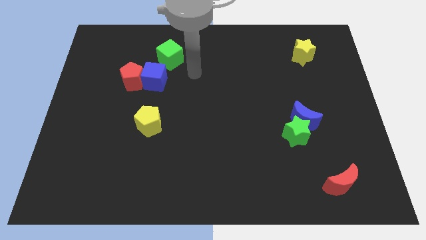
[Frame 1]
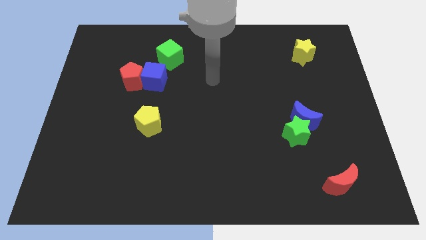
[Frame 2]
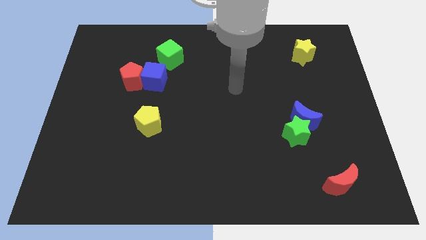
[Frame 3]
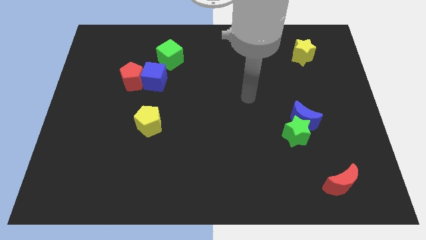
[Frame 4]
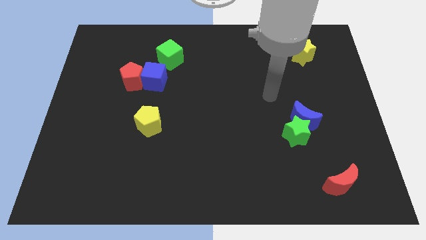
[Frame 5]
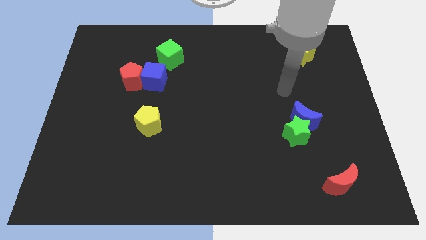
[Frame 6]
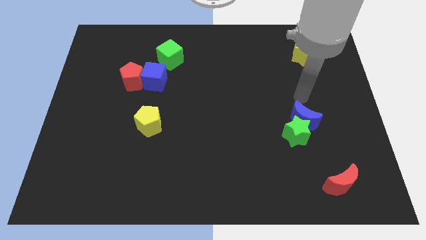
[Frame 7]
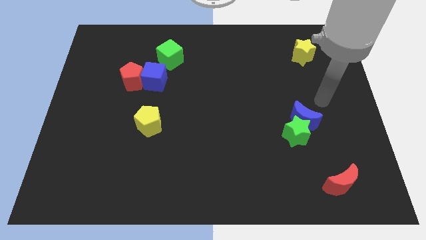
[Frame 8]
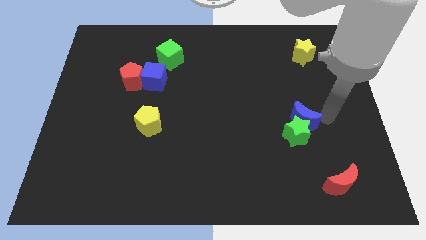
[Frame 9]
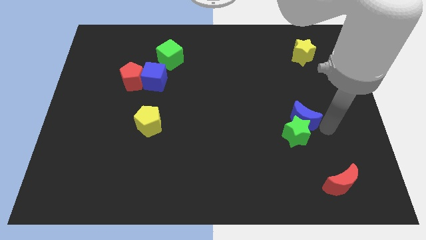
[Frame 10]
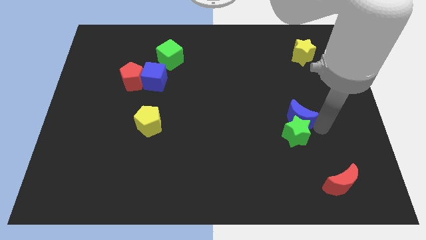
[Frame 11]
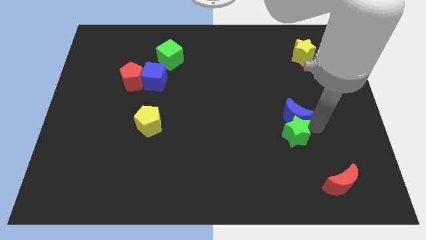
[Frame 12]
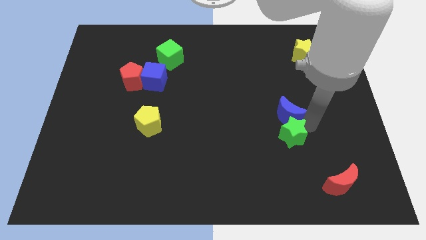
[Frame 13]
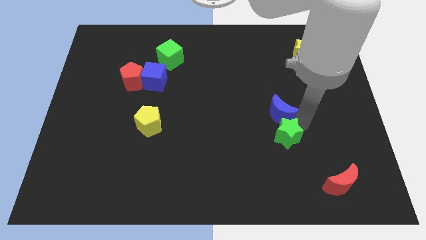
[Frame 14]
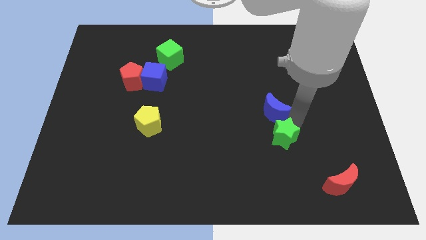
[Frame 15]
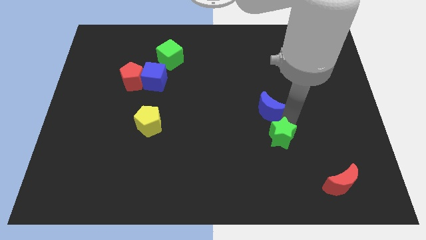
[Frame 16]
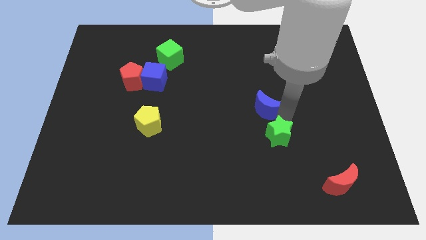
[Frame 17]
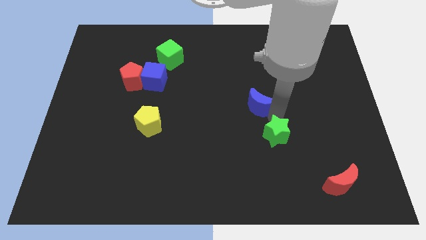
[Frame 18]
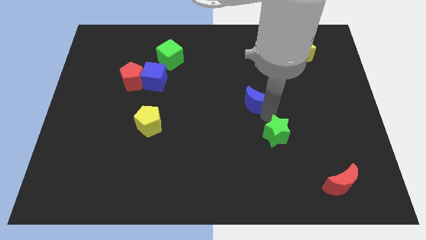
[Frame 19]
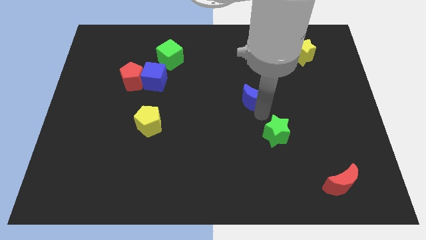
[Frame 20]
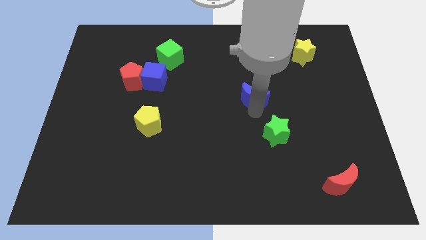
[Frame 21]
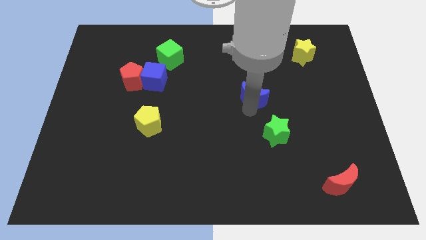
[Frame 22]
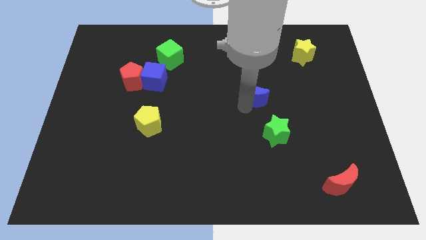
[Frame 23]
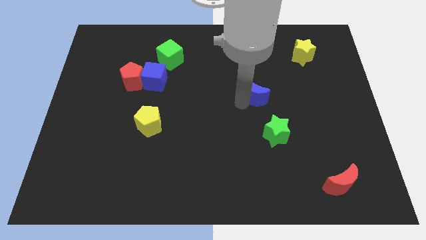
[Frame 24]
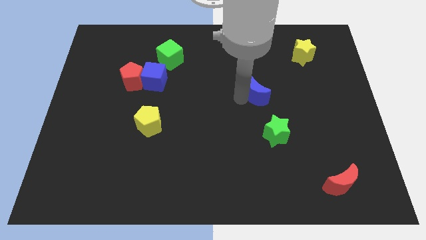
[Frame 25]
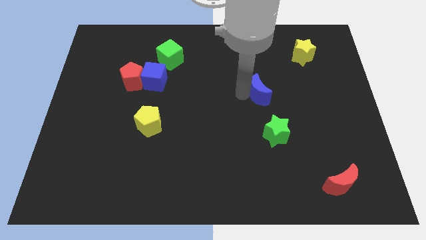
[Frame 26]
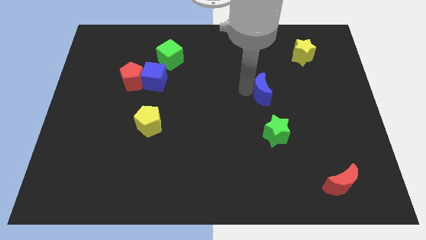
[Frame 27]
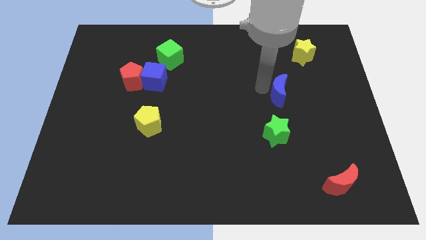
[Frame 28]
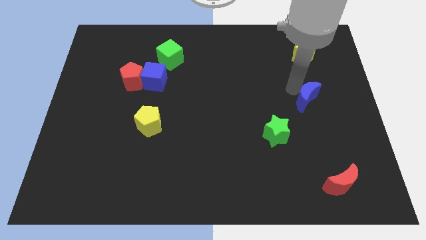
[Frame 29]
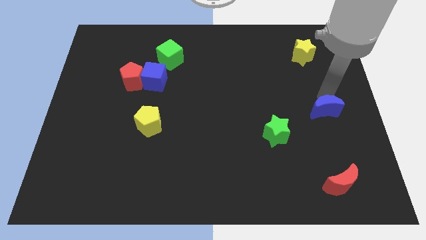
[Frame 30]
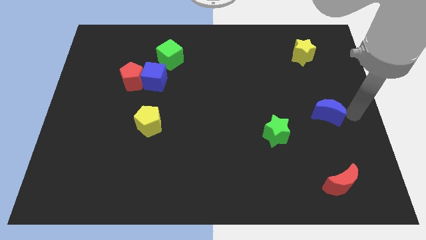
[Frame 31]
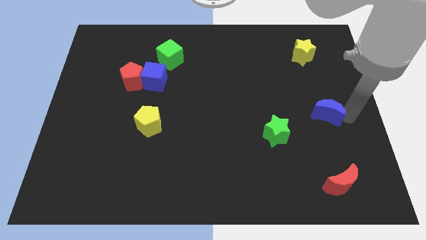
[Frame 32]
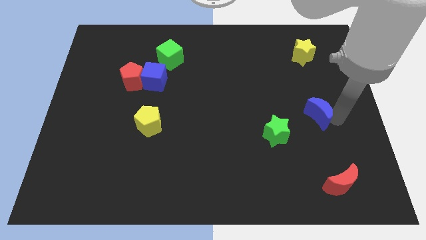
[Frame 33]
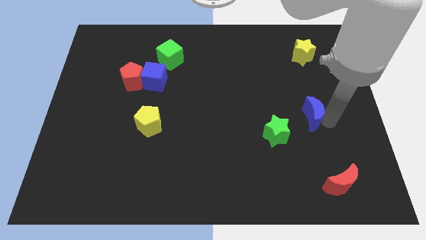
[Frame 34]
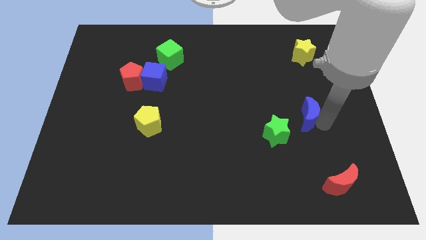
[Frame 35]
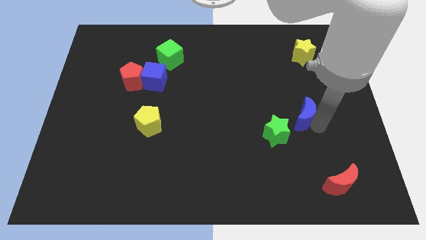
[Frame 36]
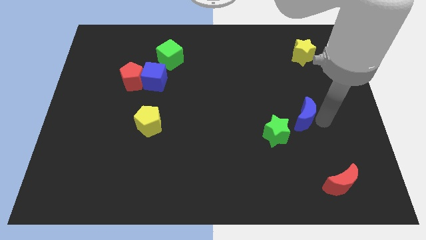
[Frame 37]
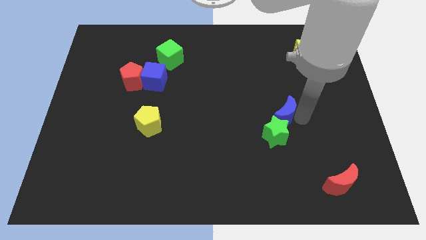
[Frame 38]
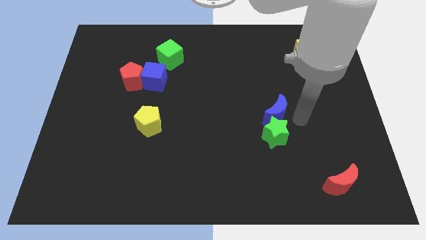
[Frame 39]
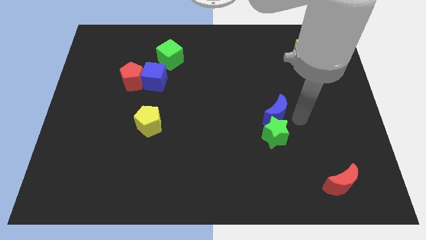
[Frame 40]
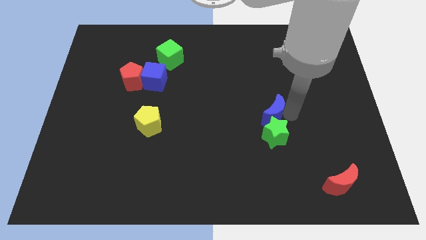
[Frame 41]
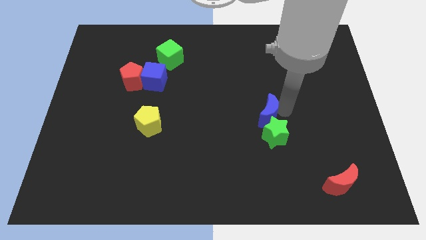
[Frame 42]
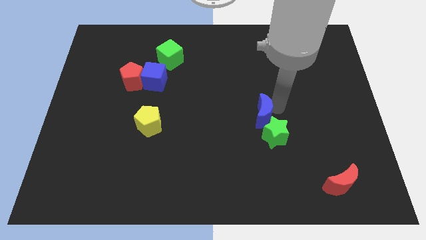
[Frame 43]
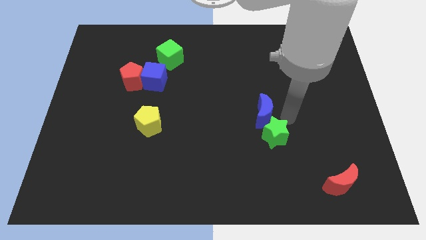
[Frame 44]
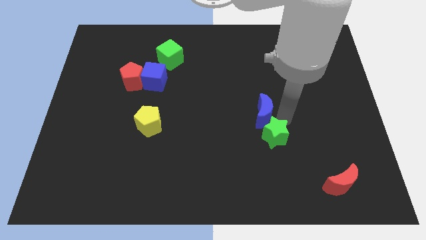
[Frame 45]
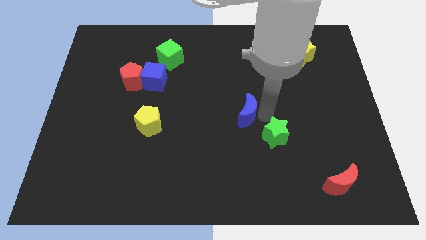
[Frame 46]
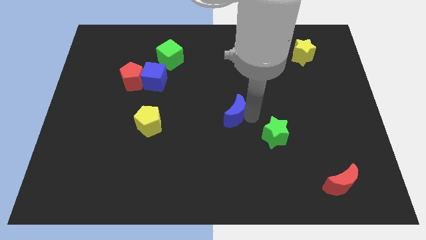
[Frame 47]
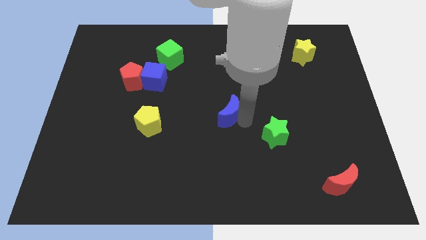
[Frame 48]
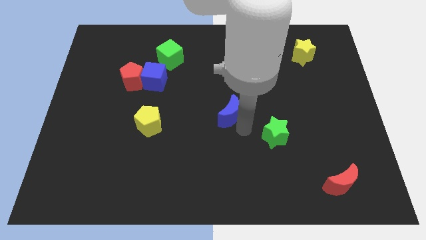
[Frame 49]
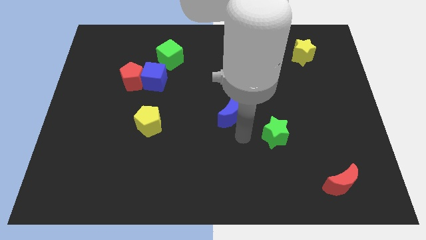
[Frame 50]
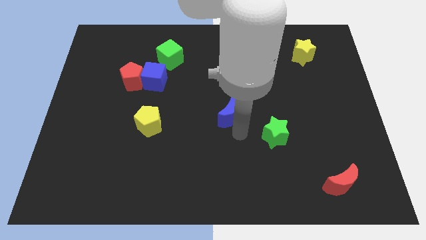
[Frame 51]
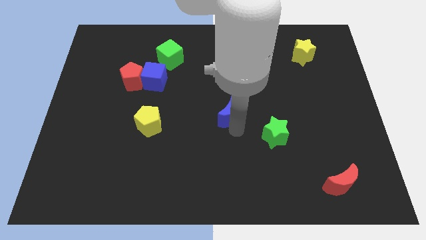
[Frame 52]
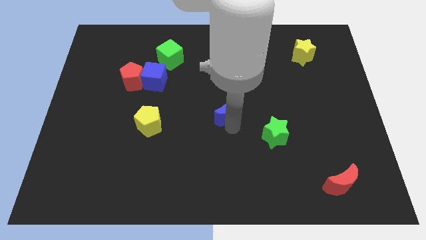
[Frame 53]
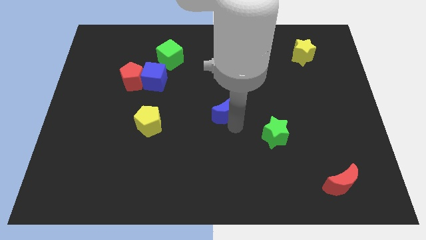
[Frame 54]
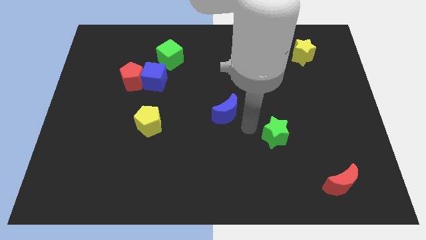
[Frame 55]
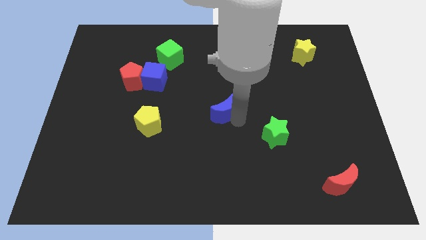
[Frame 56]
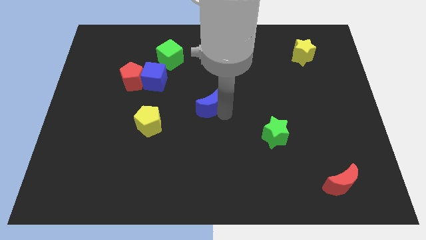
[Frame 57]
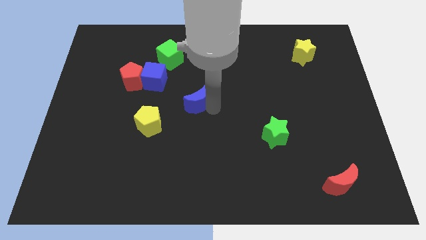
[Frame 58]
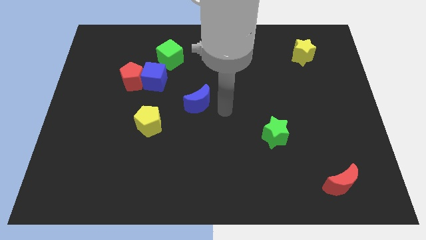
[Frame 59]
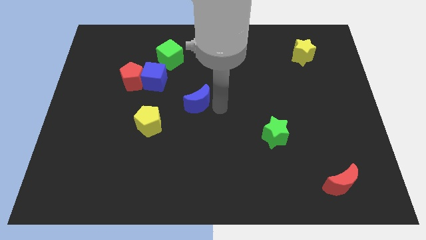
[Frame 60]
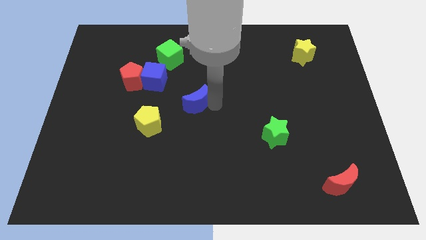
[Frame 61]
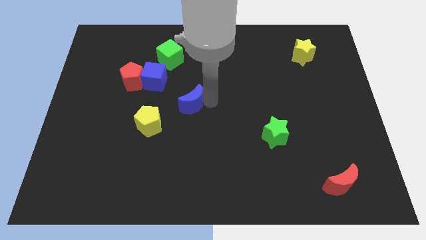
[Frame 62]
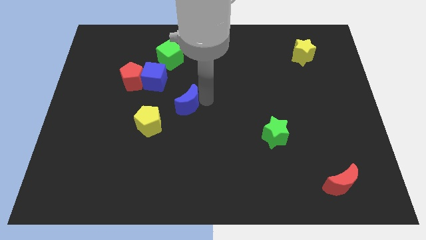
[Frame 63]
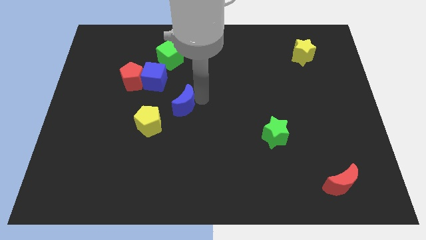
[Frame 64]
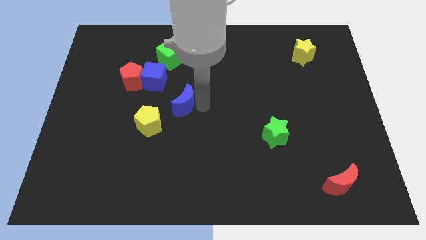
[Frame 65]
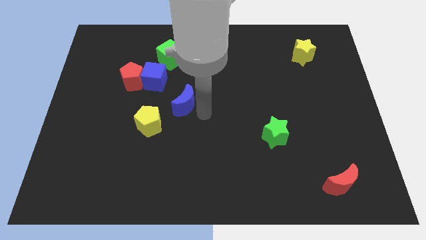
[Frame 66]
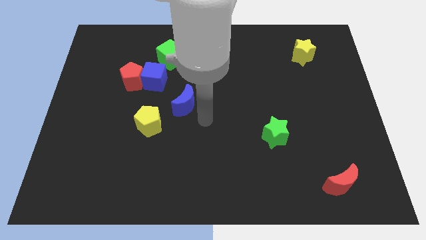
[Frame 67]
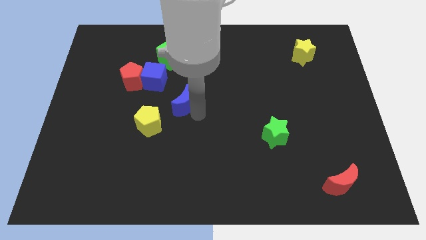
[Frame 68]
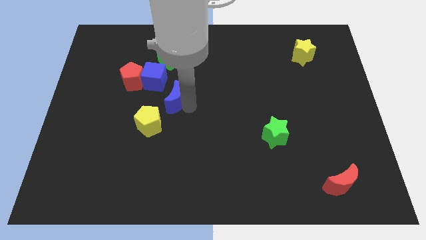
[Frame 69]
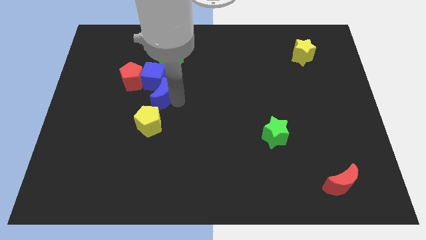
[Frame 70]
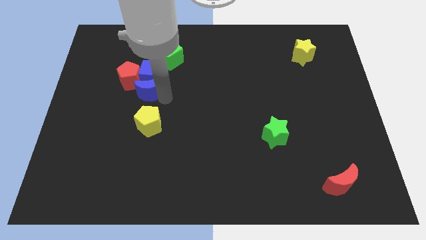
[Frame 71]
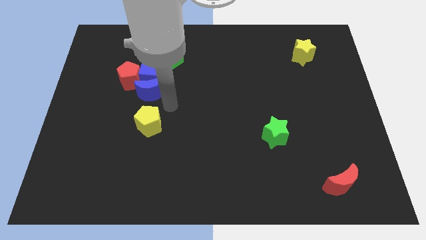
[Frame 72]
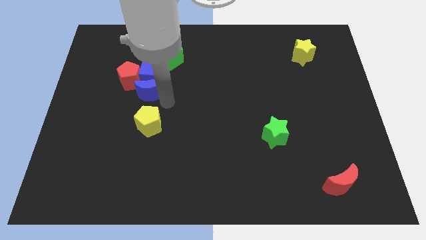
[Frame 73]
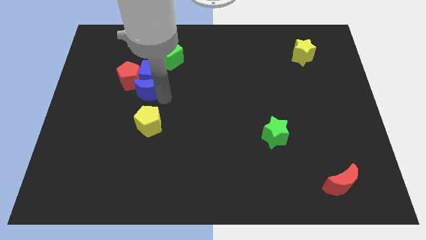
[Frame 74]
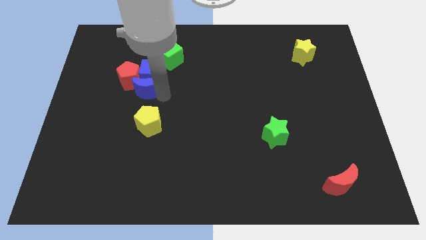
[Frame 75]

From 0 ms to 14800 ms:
slide the blue moon close to the red pentagon
